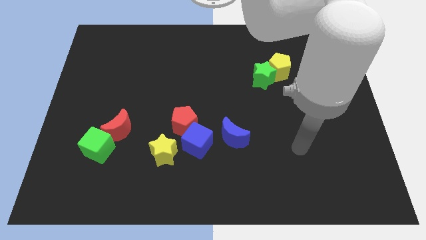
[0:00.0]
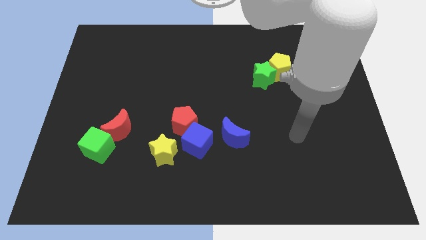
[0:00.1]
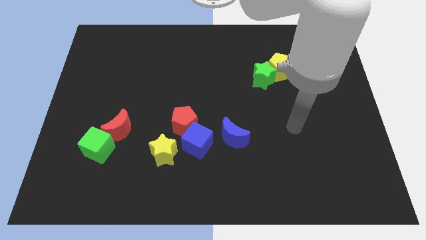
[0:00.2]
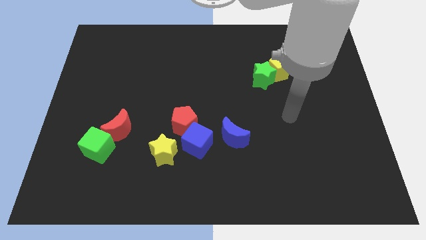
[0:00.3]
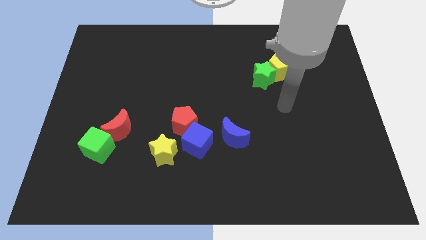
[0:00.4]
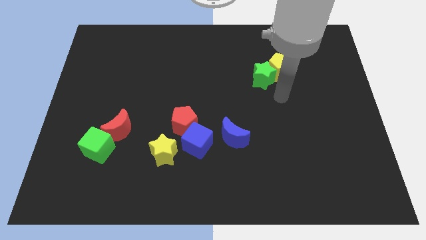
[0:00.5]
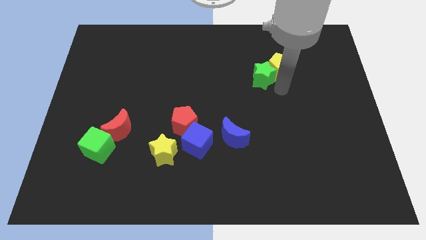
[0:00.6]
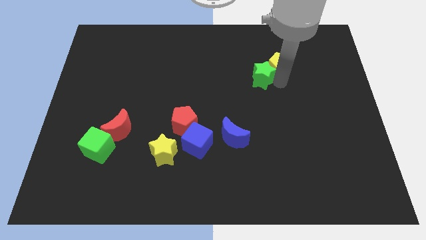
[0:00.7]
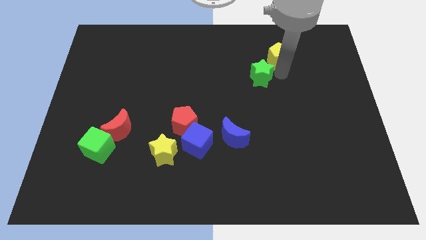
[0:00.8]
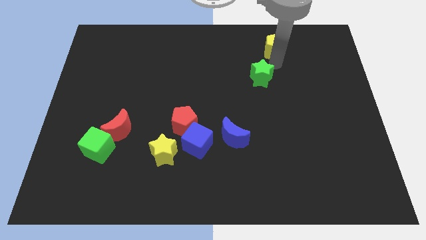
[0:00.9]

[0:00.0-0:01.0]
pull the green star apart from the yellow pentagon

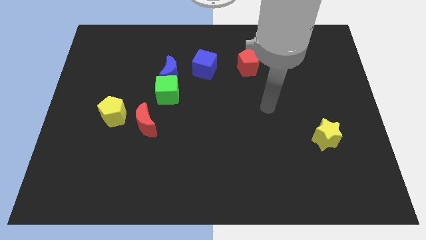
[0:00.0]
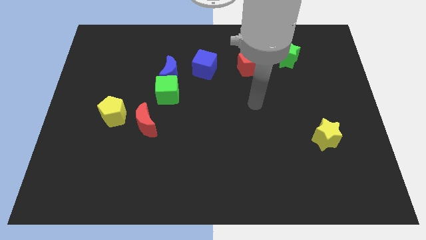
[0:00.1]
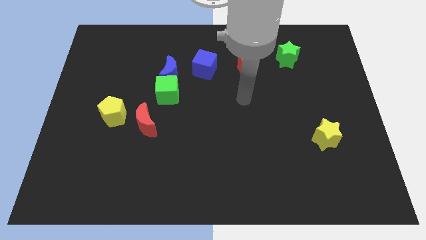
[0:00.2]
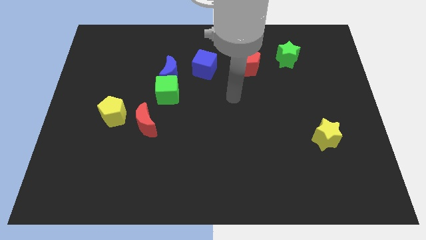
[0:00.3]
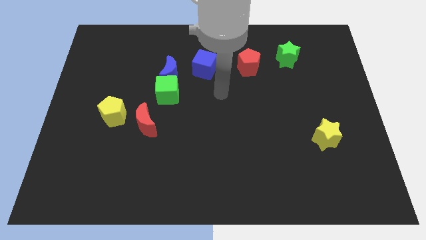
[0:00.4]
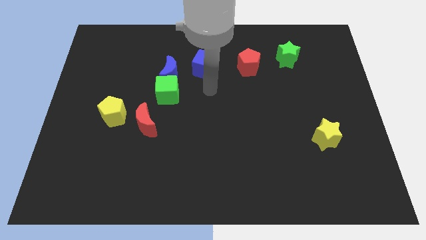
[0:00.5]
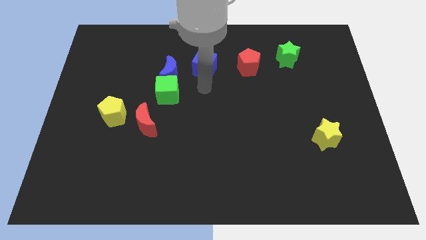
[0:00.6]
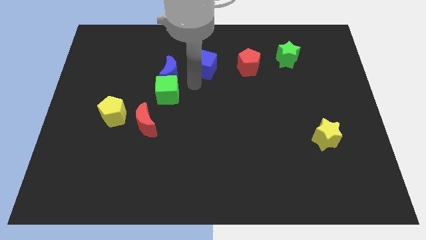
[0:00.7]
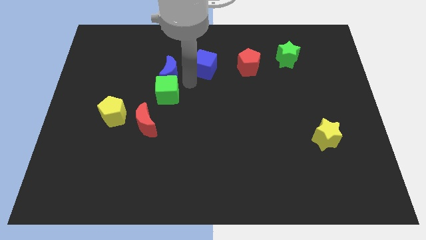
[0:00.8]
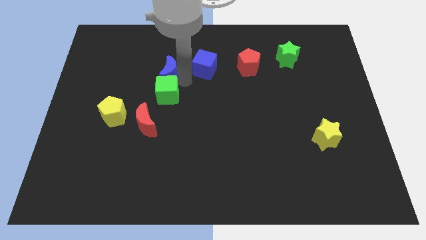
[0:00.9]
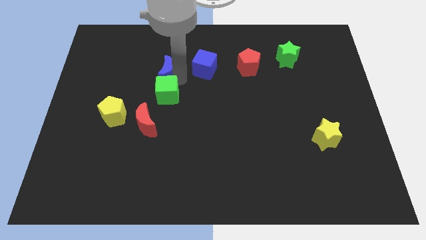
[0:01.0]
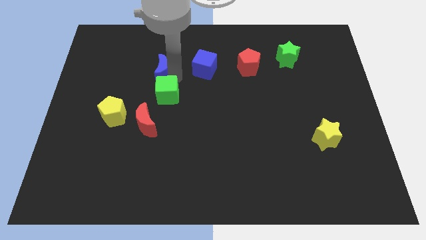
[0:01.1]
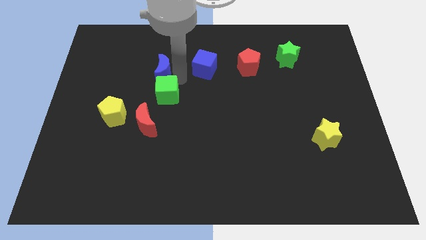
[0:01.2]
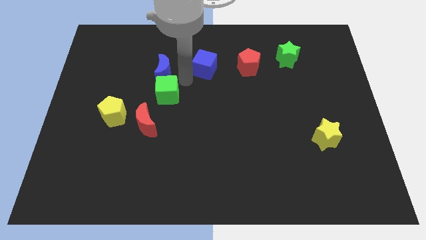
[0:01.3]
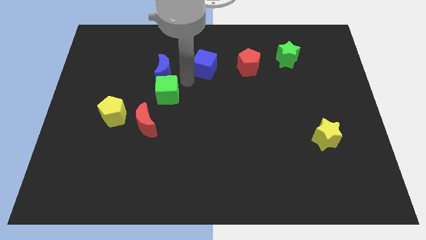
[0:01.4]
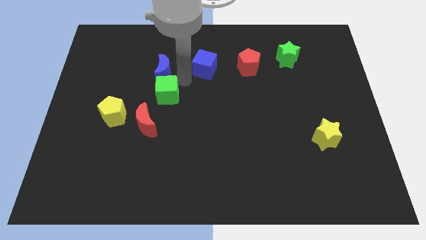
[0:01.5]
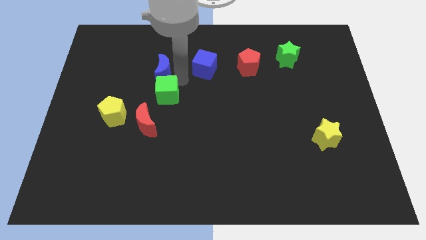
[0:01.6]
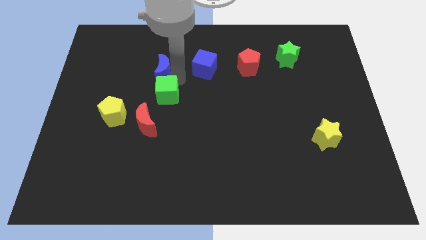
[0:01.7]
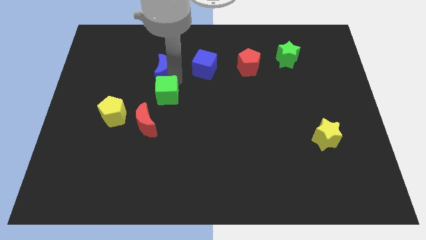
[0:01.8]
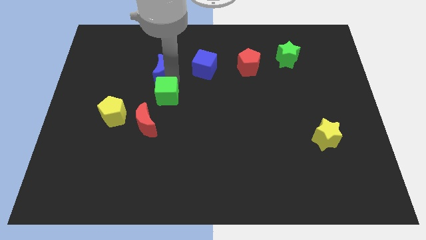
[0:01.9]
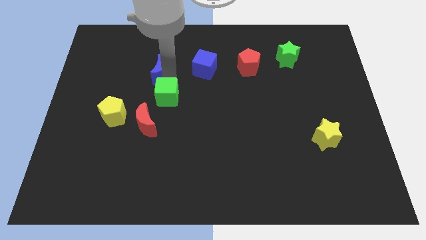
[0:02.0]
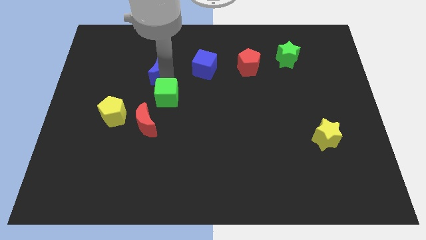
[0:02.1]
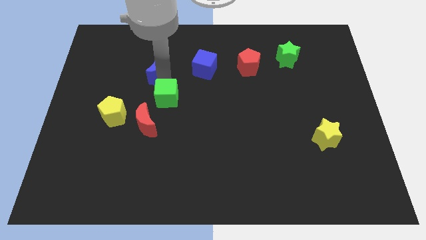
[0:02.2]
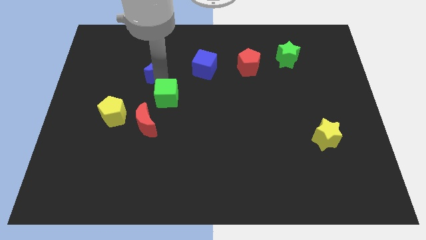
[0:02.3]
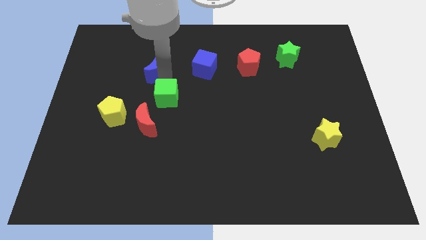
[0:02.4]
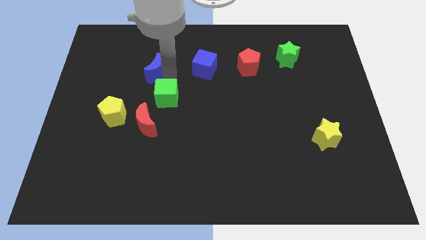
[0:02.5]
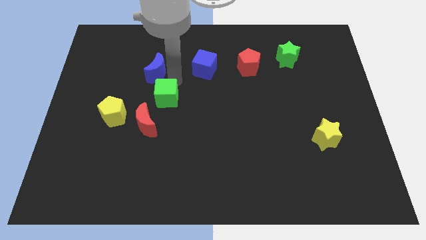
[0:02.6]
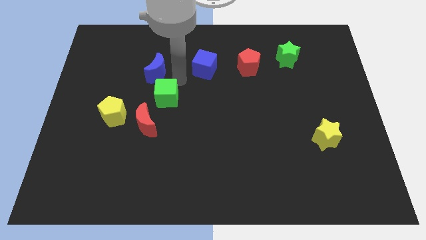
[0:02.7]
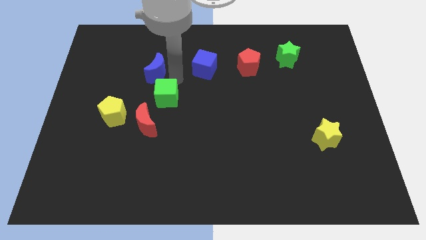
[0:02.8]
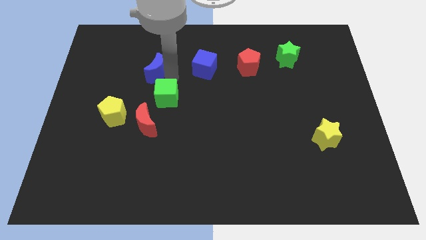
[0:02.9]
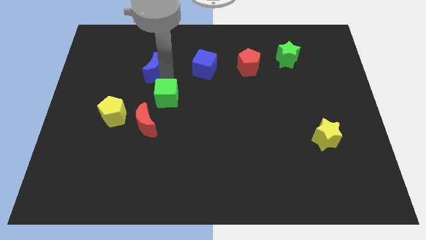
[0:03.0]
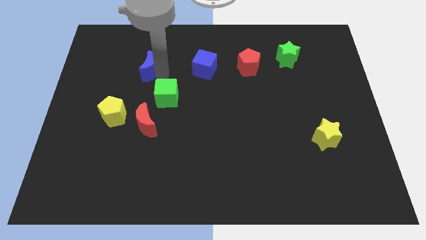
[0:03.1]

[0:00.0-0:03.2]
pull the blue moon apart from the green cube and blue cube

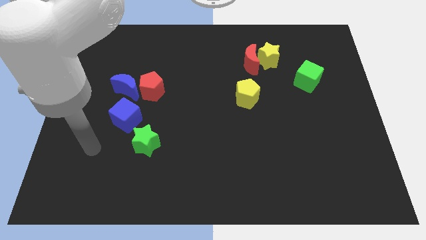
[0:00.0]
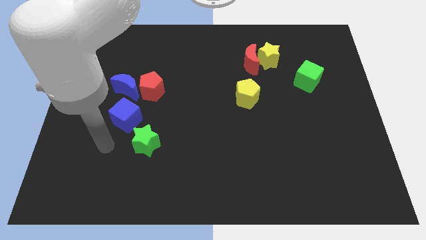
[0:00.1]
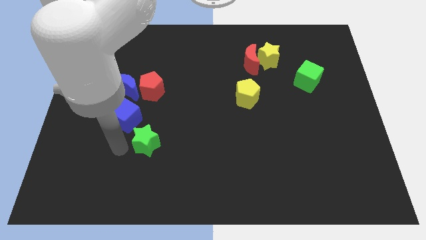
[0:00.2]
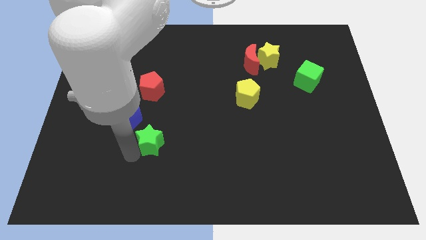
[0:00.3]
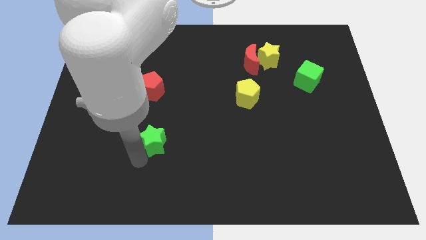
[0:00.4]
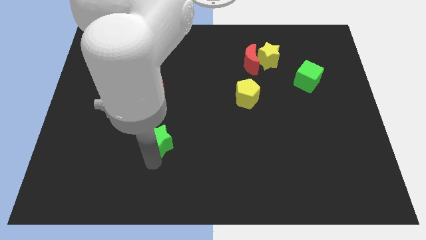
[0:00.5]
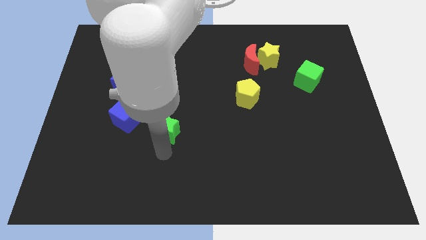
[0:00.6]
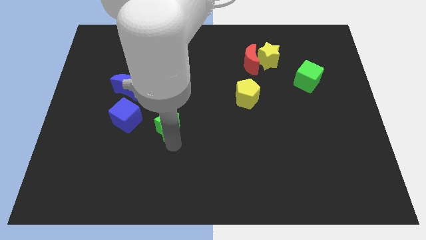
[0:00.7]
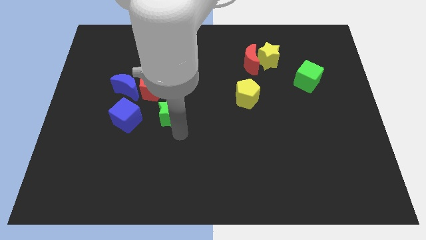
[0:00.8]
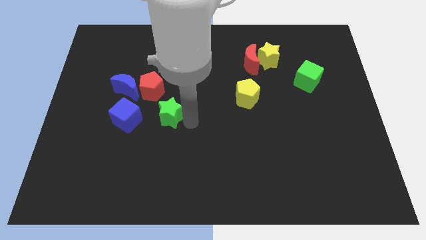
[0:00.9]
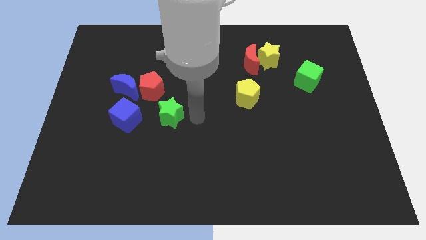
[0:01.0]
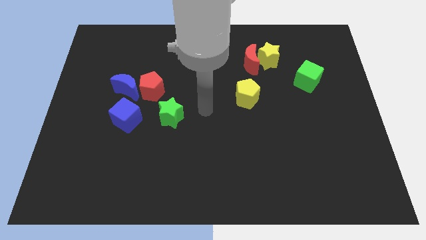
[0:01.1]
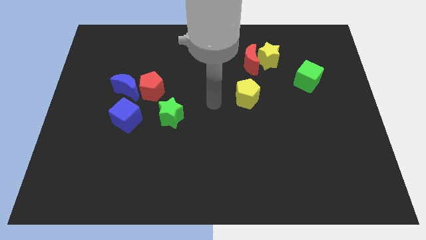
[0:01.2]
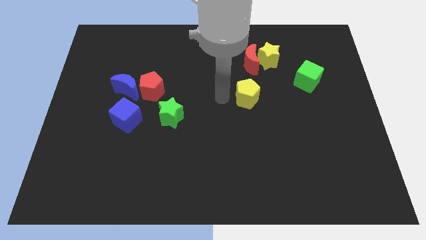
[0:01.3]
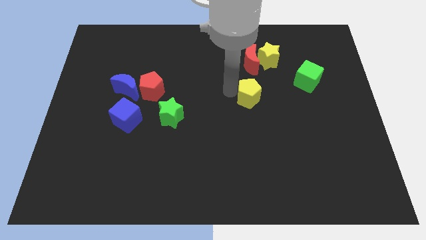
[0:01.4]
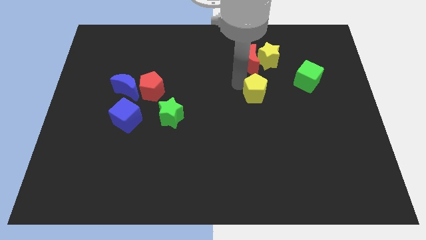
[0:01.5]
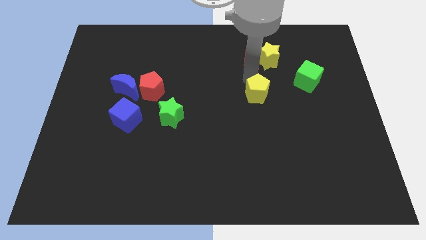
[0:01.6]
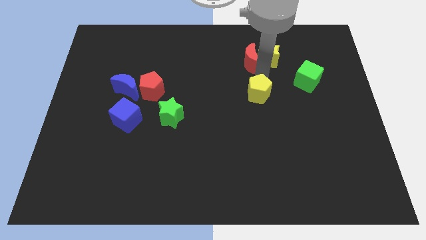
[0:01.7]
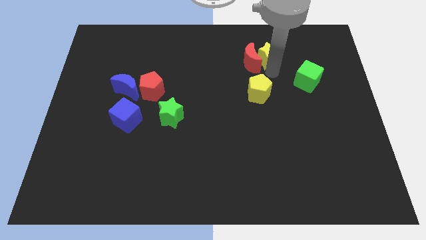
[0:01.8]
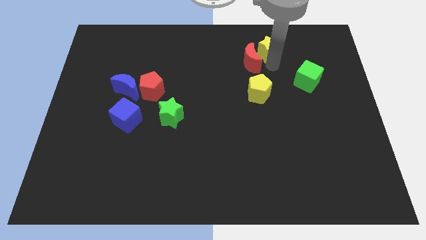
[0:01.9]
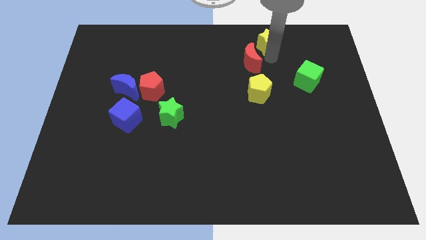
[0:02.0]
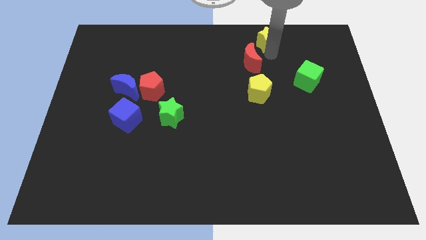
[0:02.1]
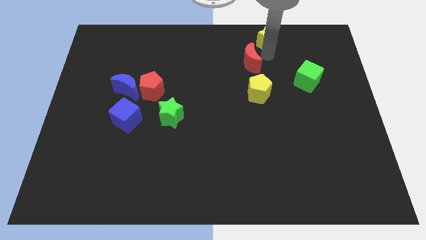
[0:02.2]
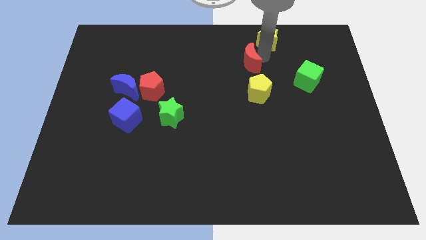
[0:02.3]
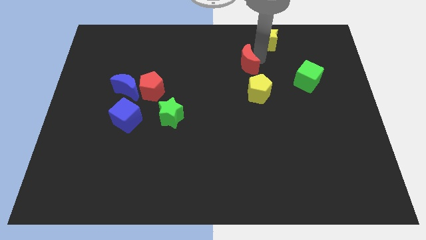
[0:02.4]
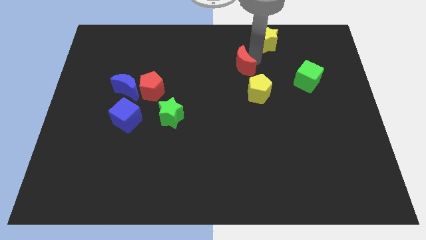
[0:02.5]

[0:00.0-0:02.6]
move the red moon away from the yellow star

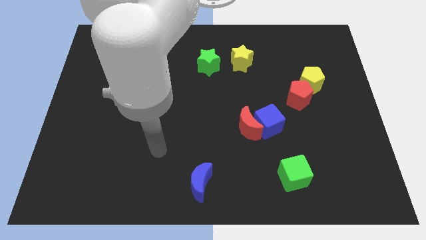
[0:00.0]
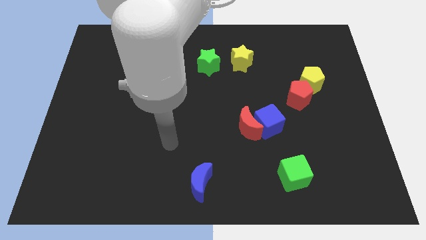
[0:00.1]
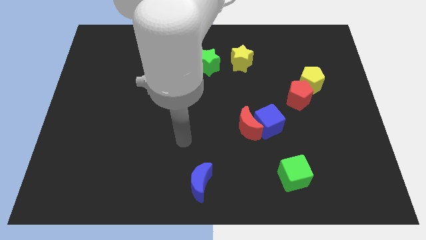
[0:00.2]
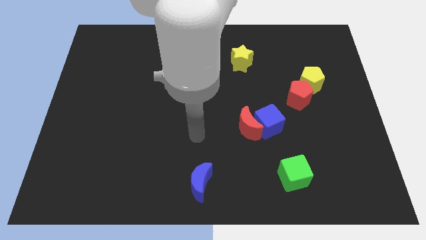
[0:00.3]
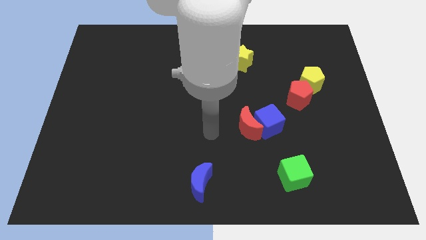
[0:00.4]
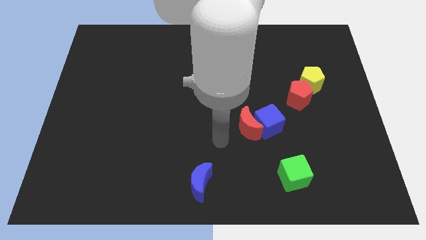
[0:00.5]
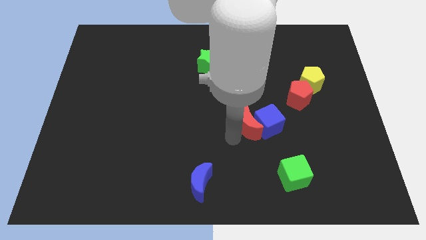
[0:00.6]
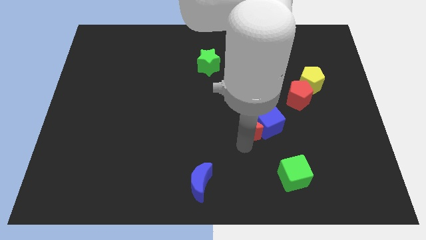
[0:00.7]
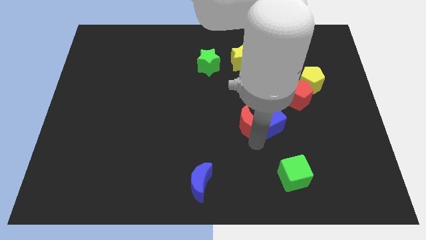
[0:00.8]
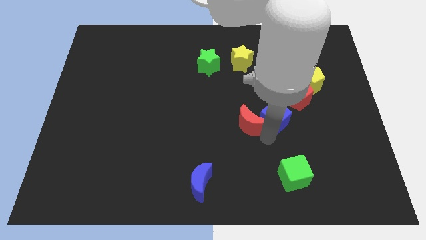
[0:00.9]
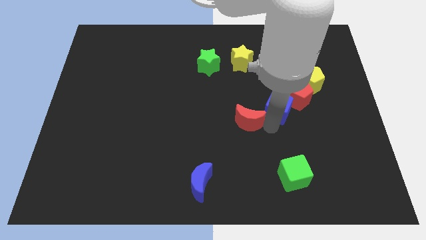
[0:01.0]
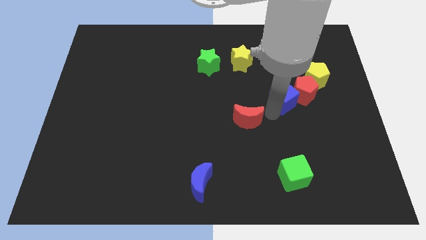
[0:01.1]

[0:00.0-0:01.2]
separate the red moon from the blue cube

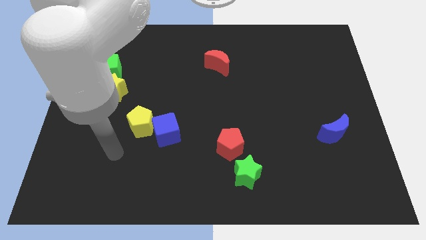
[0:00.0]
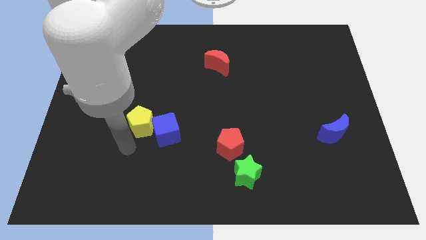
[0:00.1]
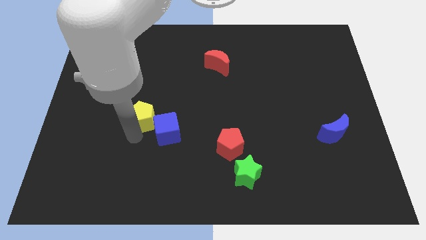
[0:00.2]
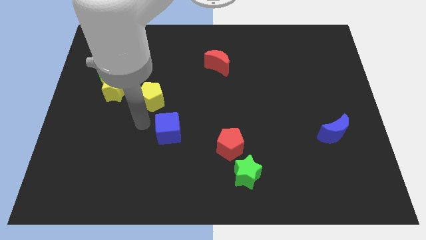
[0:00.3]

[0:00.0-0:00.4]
pull the blue cube apart from the yellow pentagon

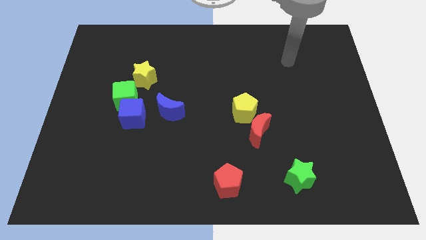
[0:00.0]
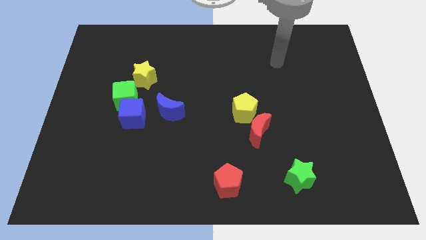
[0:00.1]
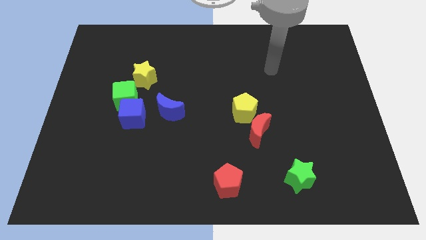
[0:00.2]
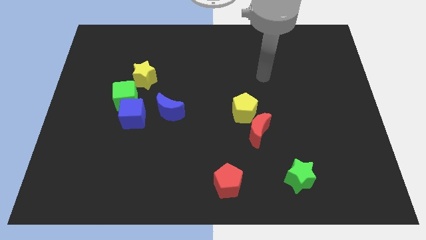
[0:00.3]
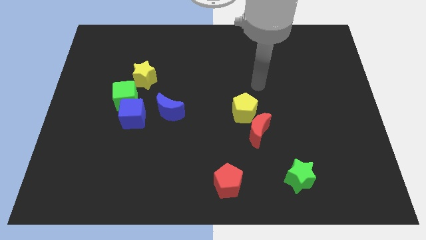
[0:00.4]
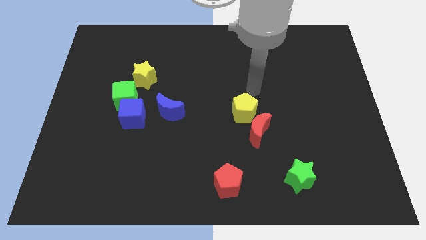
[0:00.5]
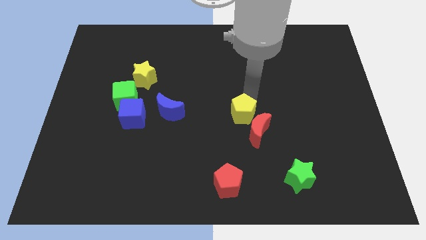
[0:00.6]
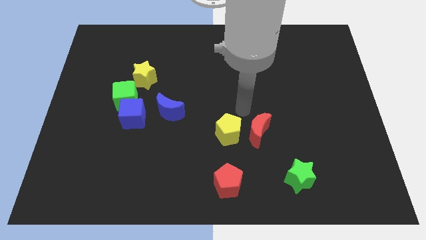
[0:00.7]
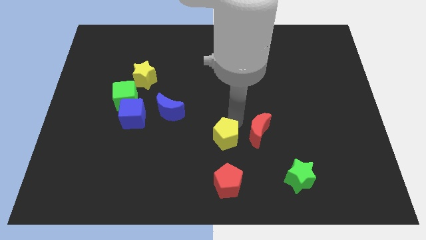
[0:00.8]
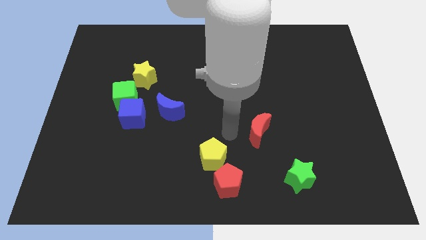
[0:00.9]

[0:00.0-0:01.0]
separate the red moon from the yellow pentagon

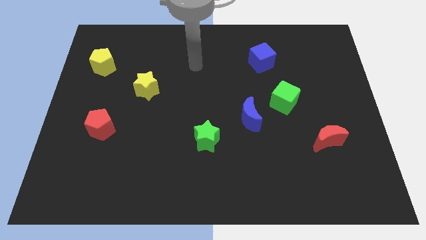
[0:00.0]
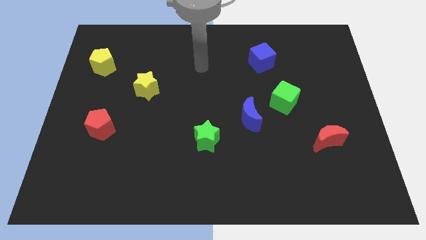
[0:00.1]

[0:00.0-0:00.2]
pull the blue moon apart from the green cube
